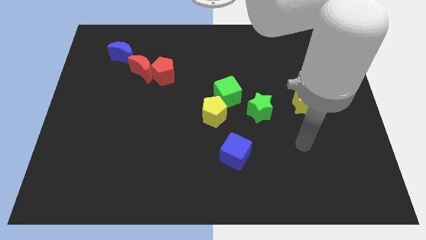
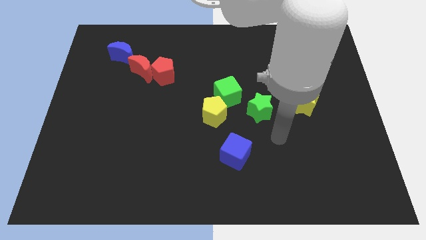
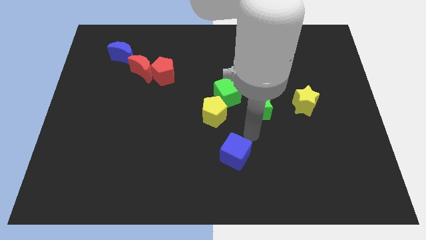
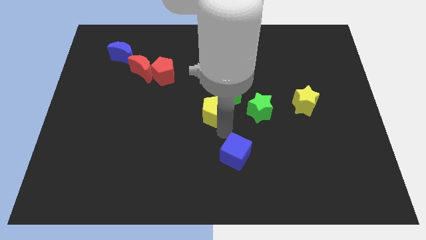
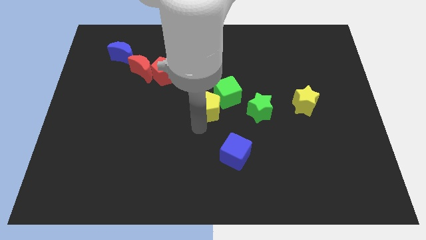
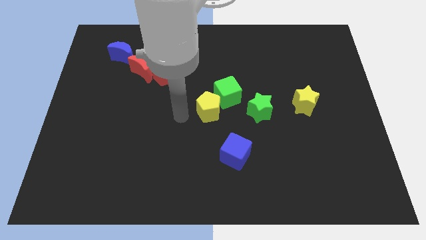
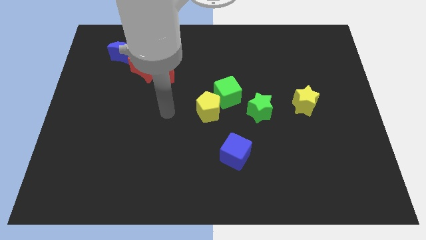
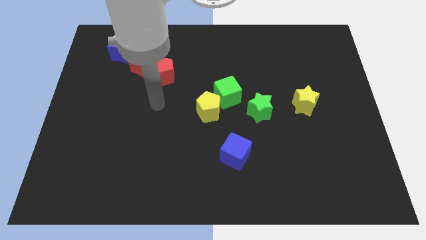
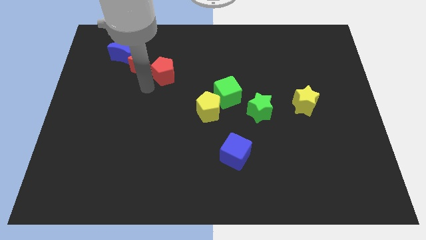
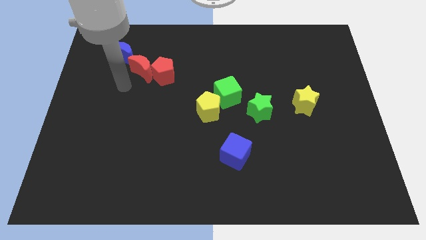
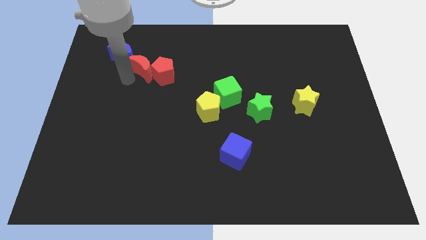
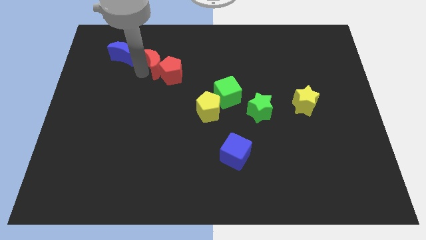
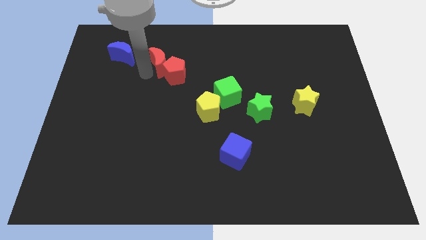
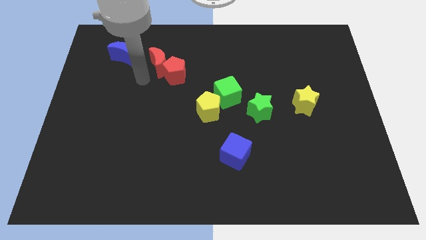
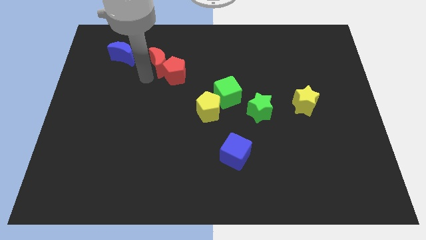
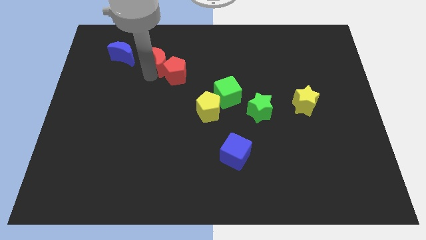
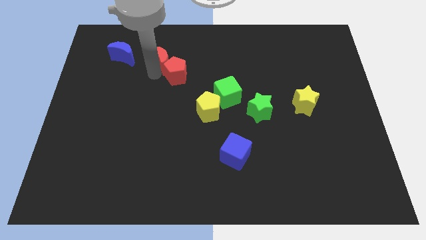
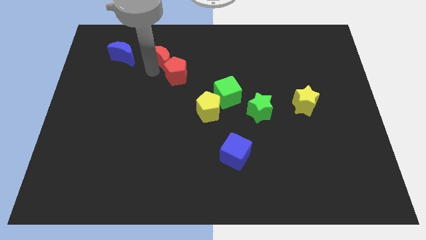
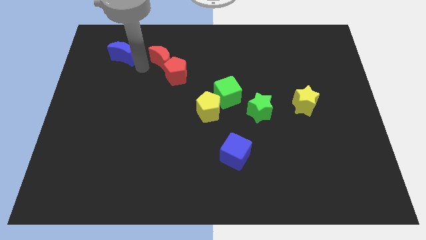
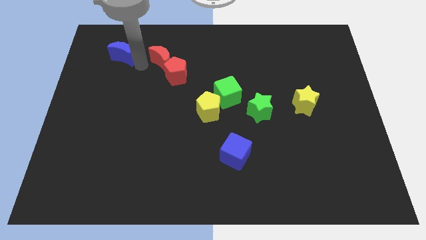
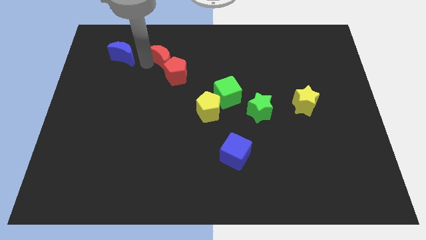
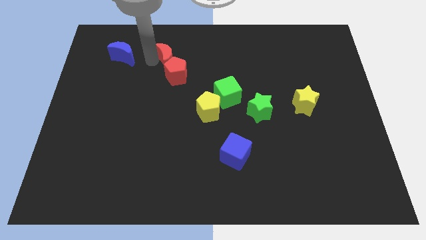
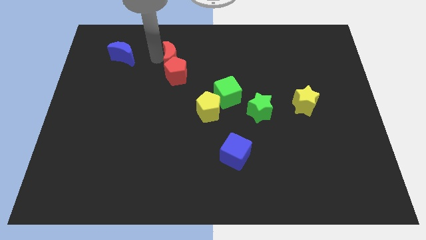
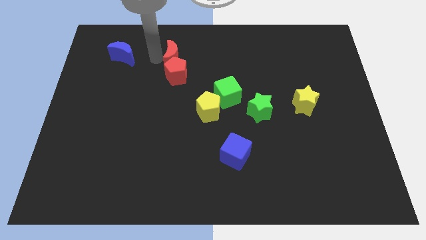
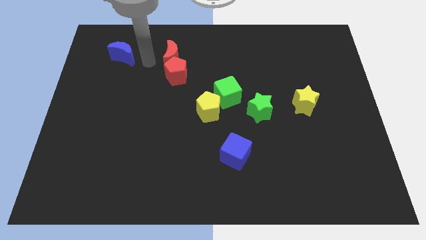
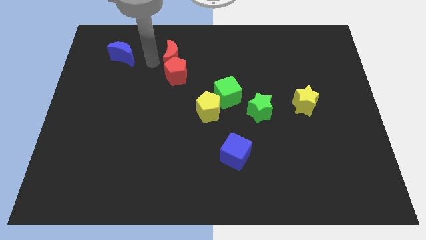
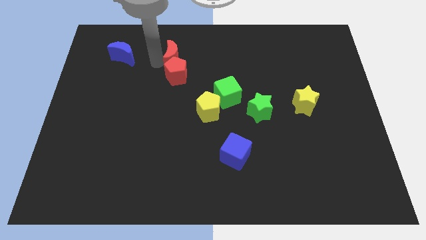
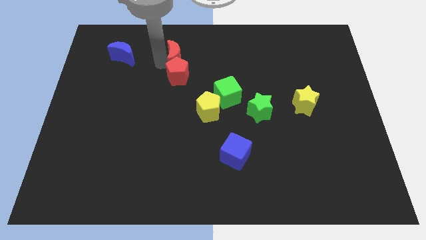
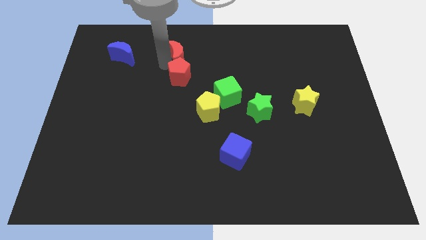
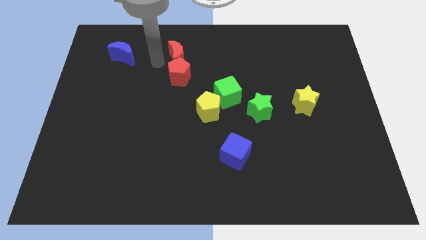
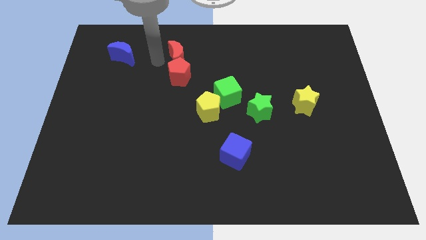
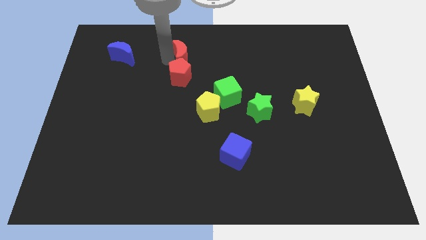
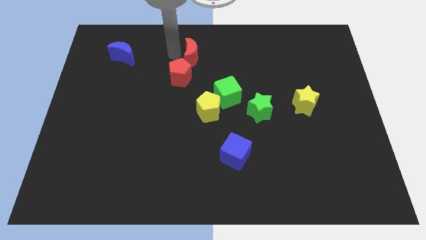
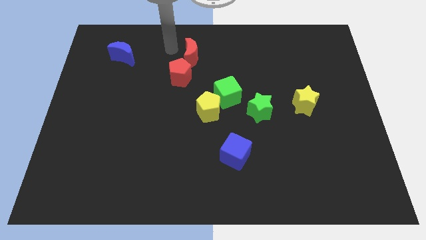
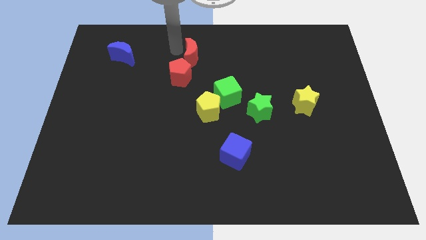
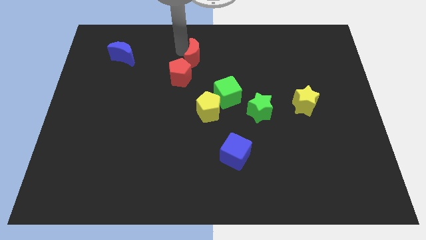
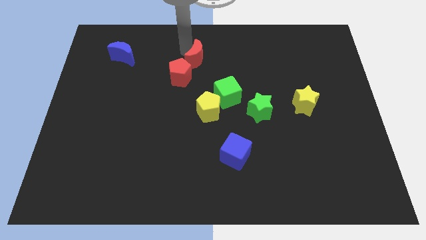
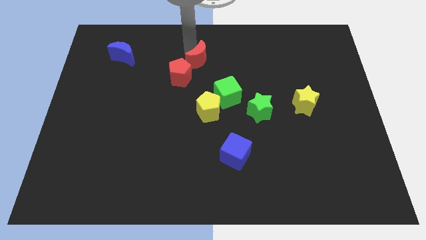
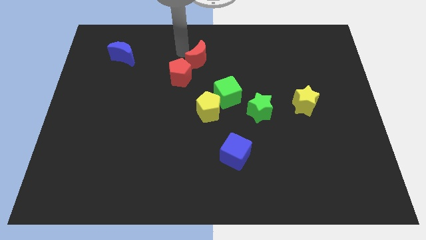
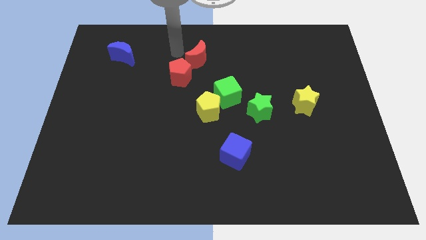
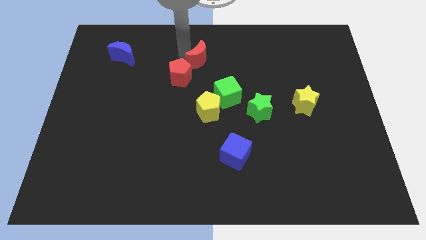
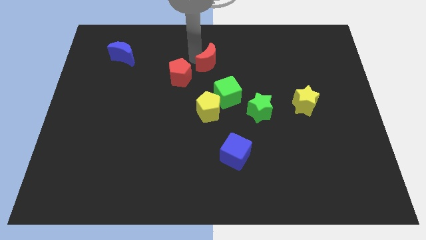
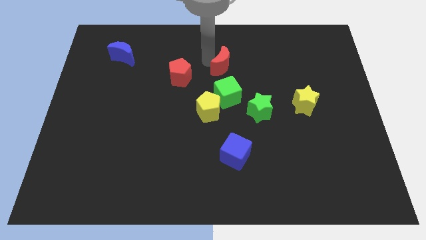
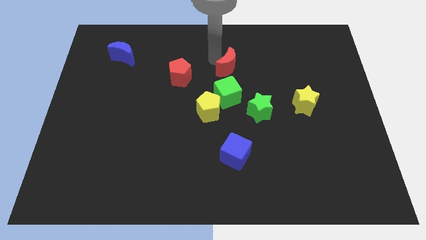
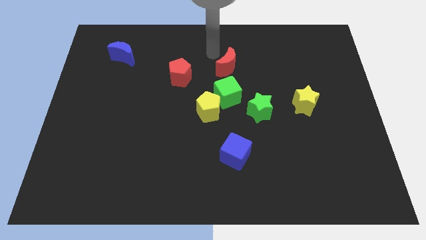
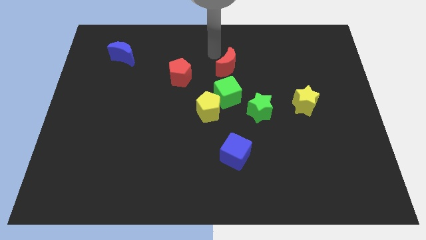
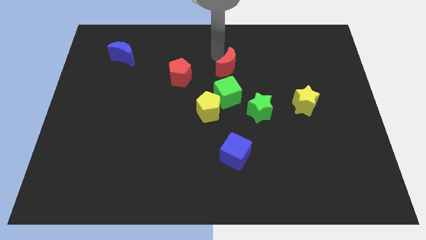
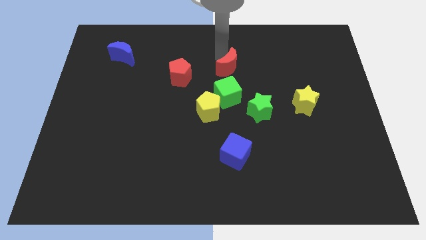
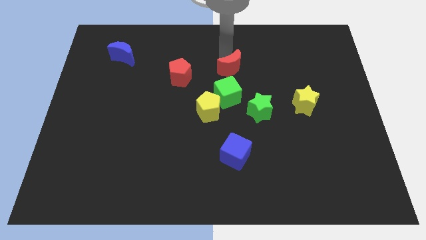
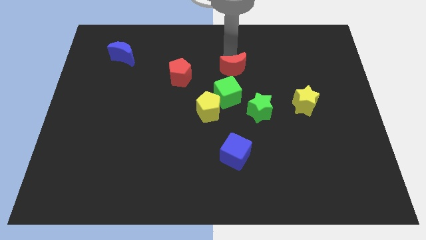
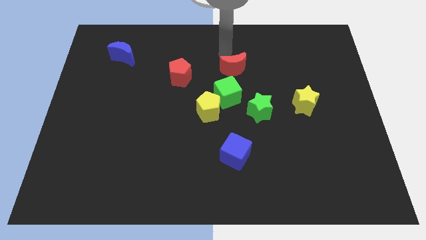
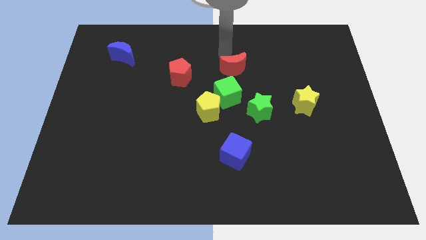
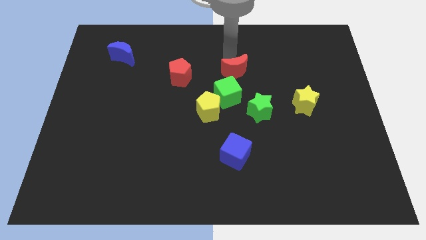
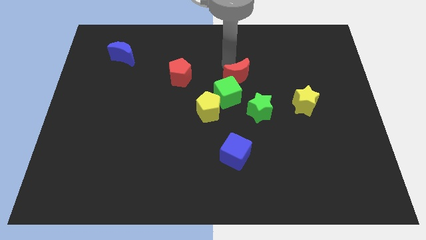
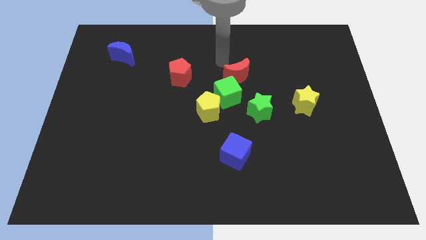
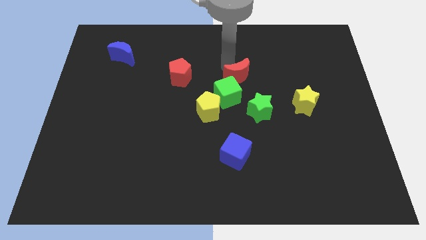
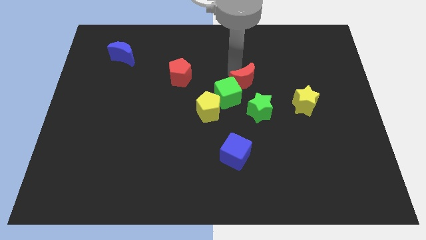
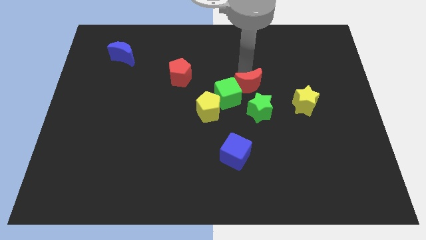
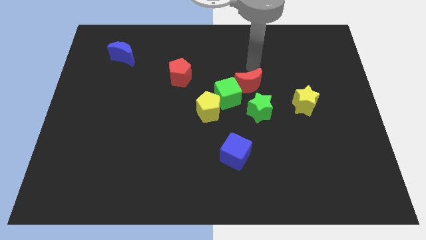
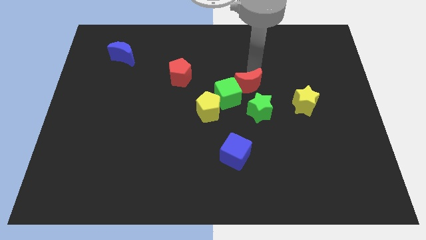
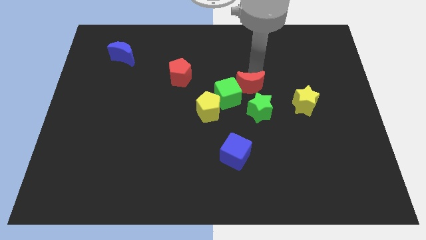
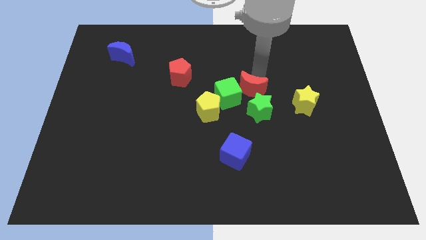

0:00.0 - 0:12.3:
move the red moon just left of the yellow star

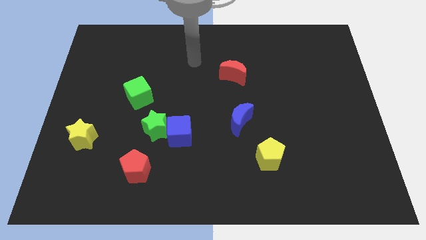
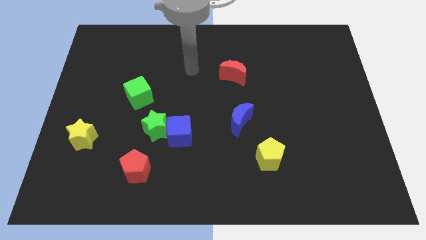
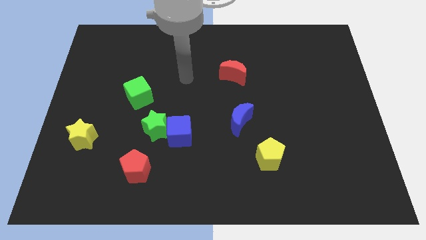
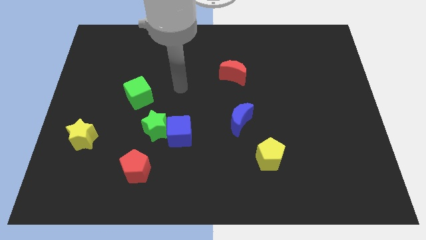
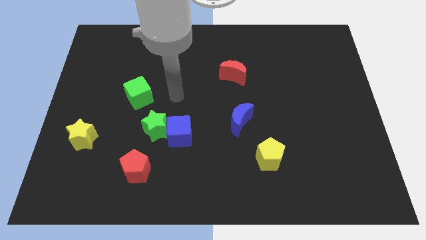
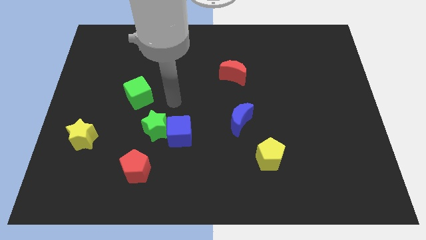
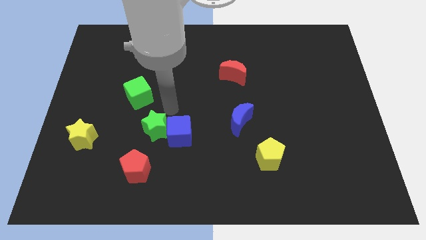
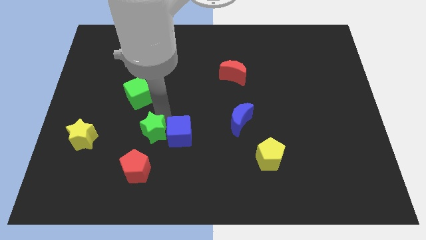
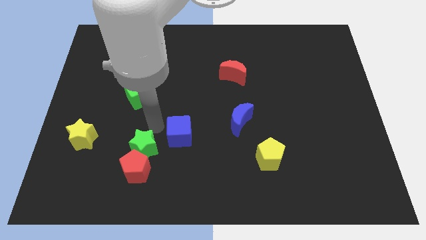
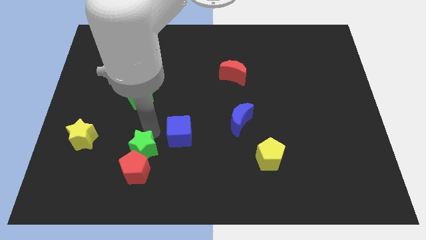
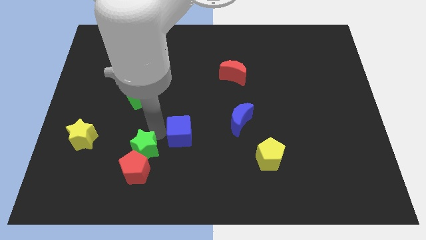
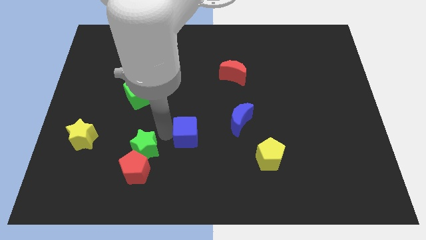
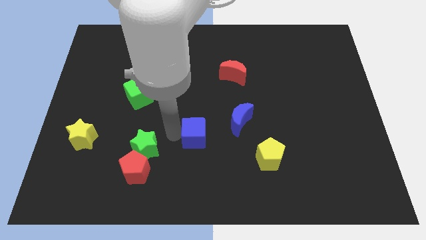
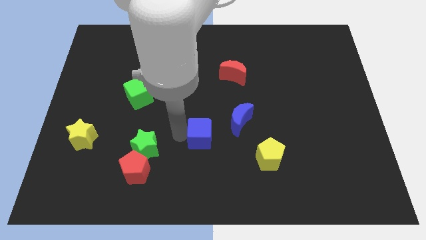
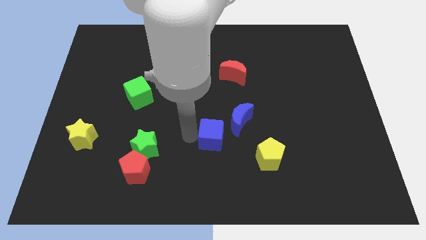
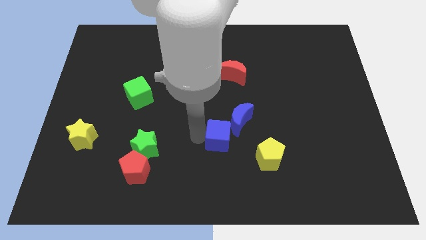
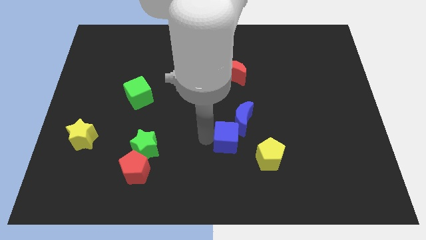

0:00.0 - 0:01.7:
push the blue cube to the top left of the yellow pentagon
